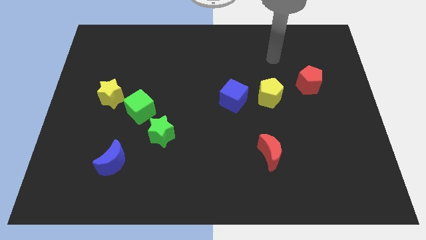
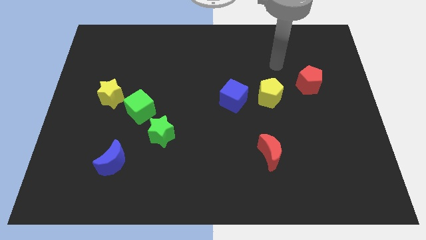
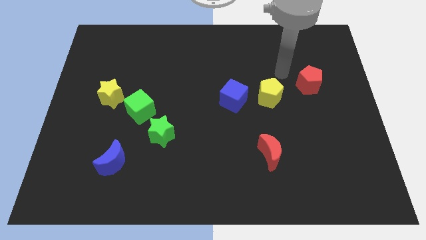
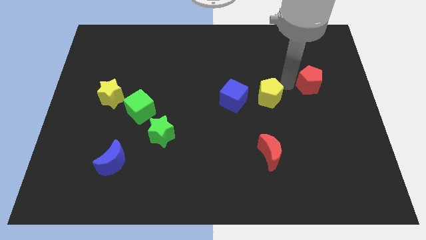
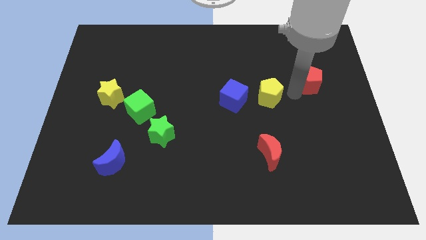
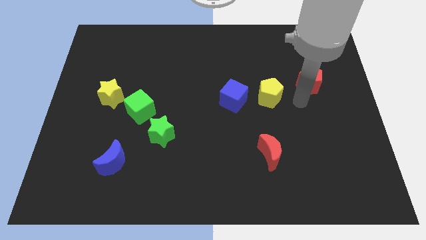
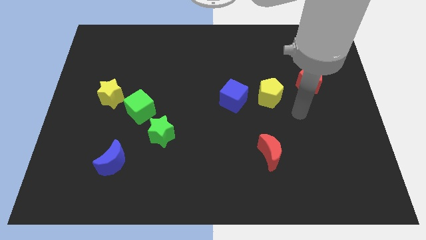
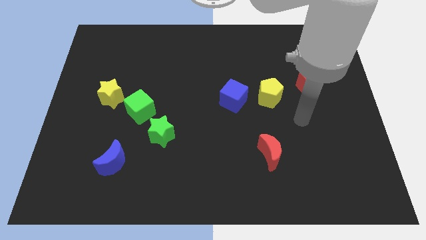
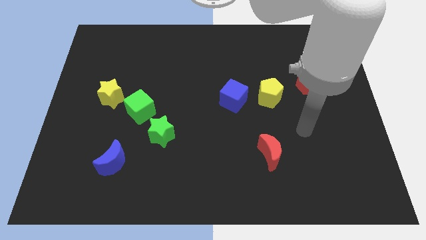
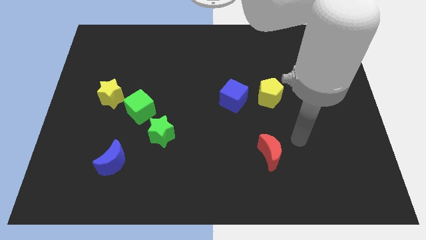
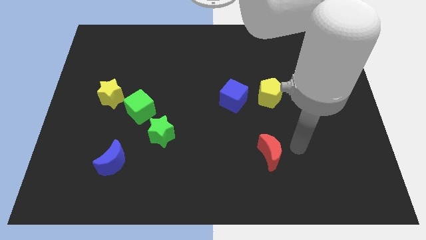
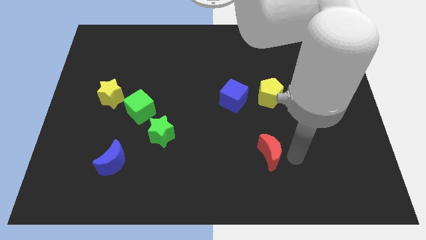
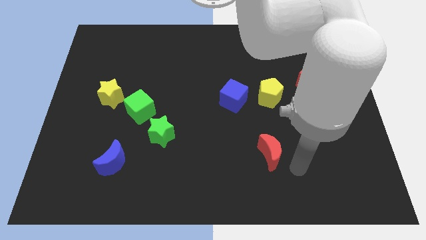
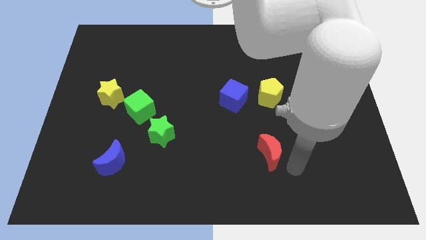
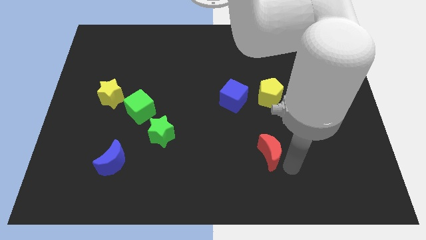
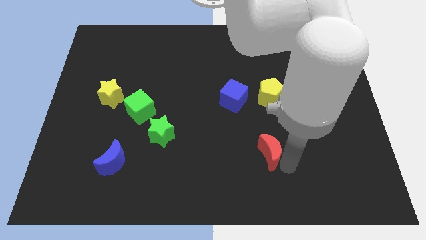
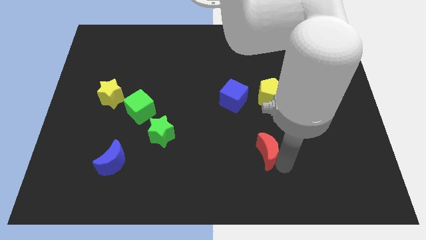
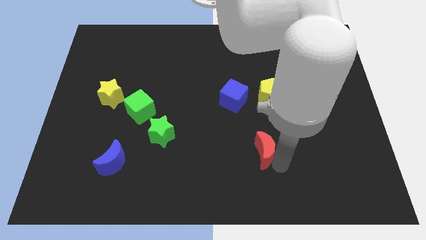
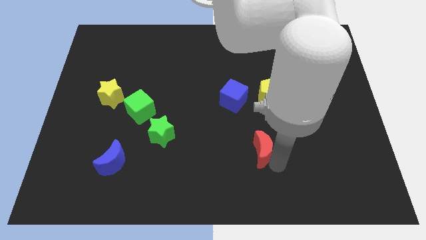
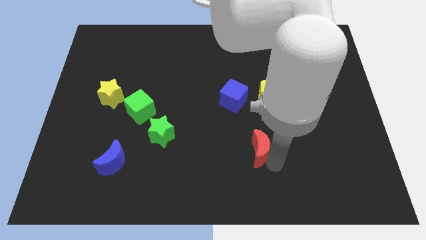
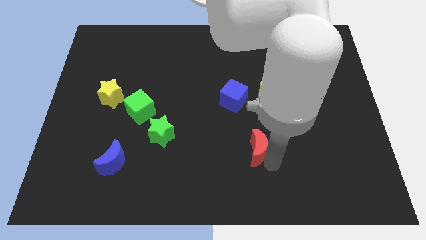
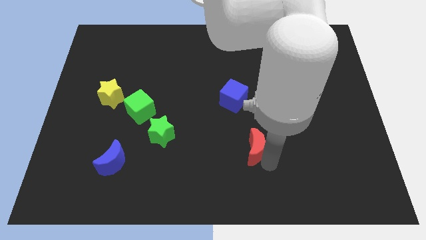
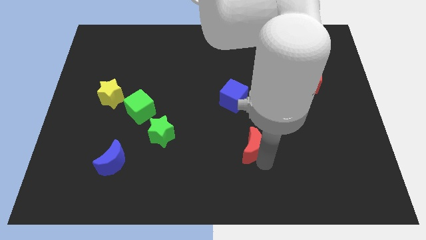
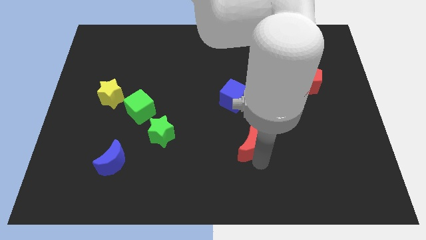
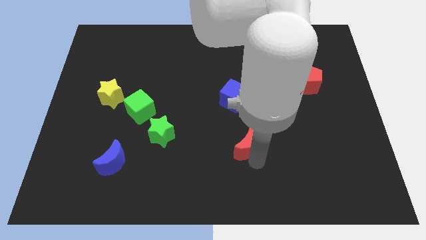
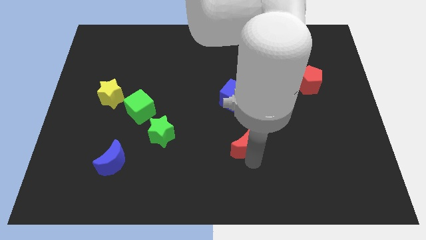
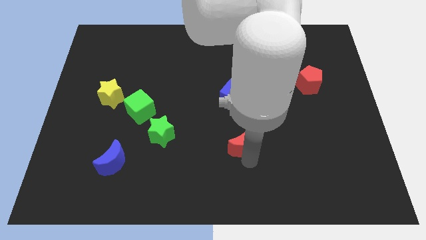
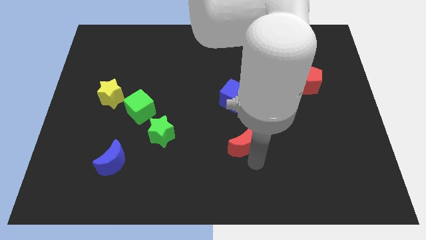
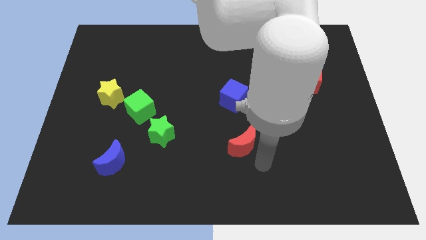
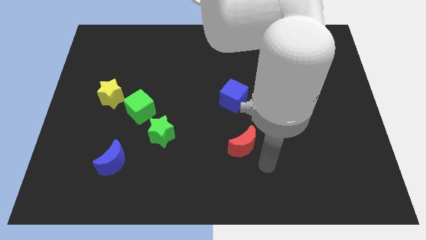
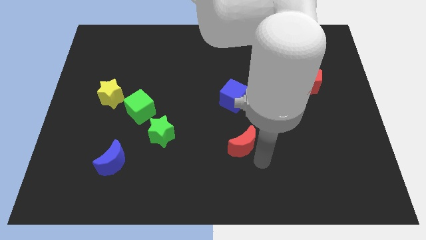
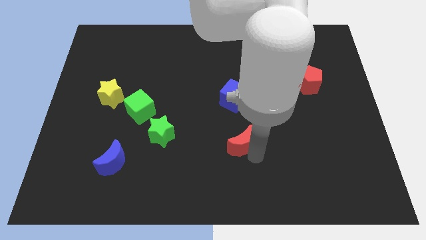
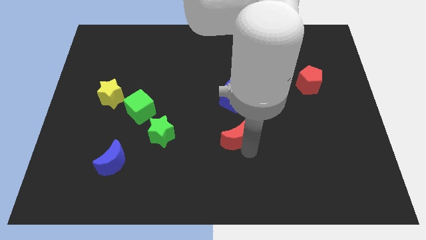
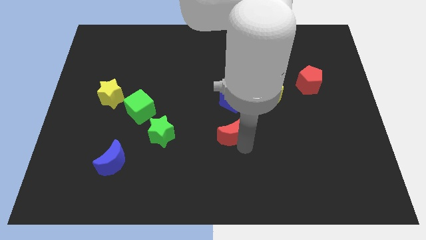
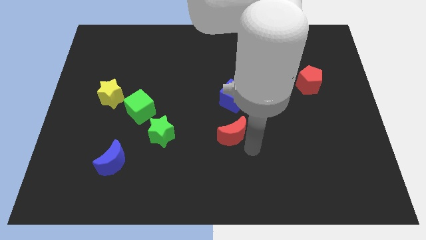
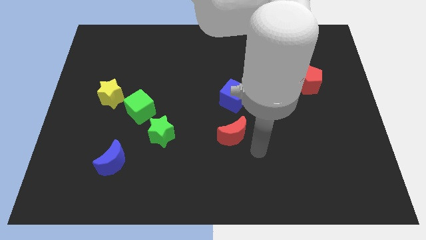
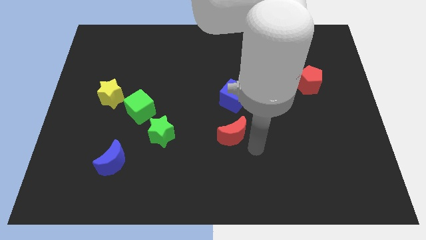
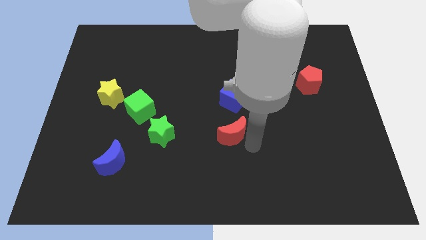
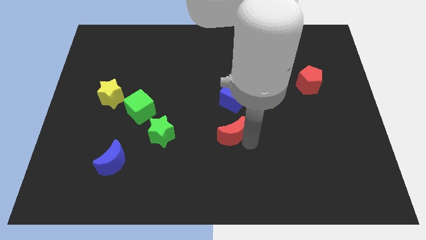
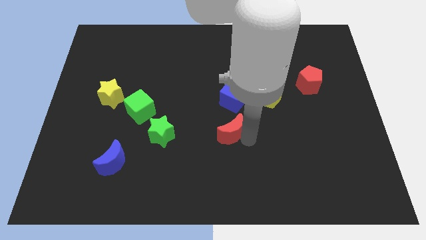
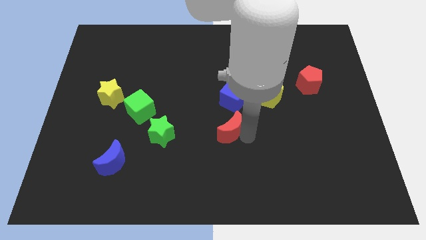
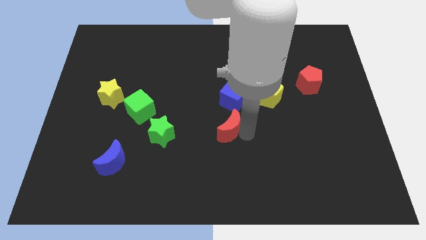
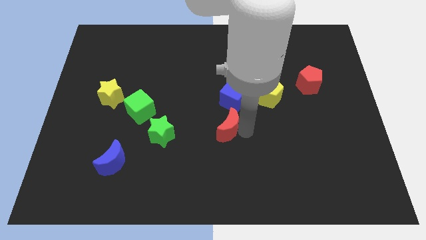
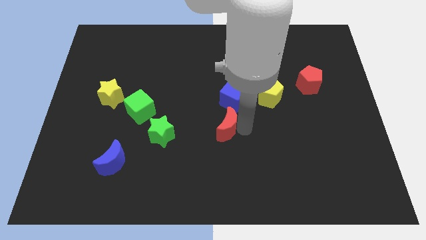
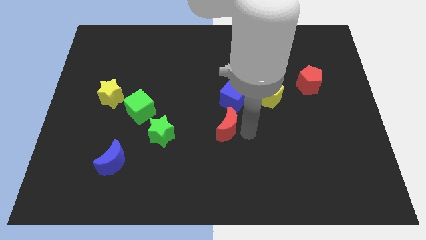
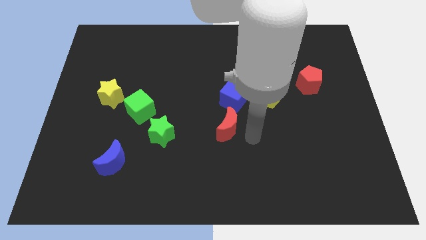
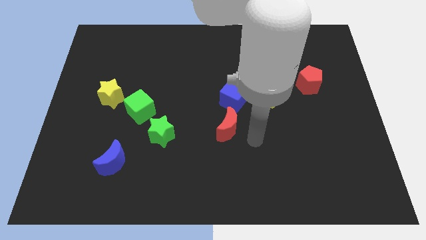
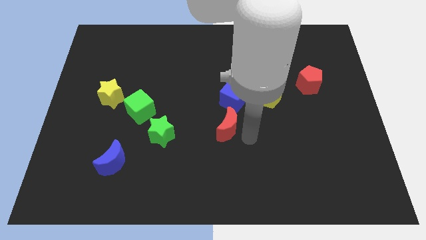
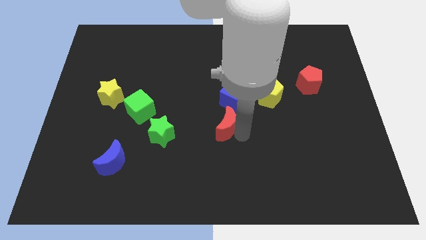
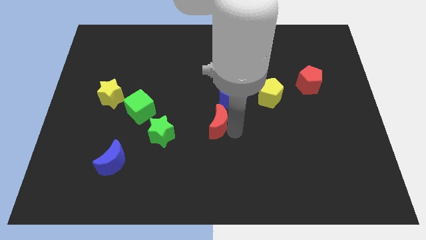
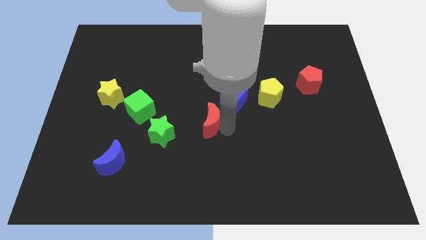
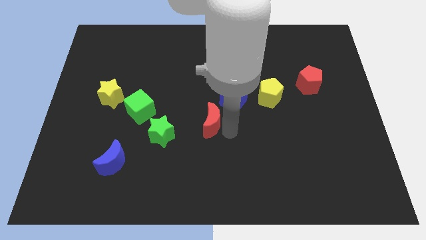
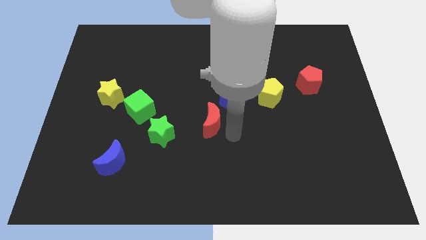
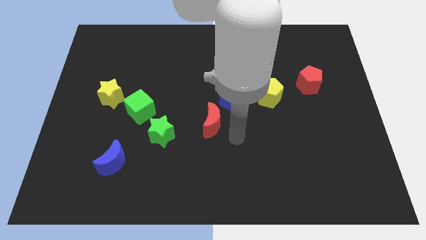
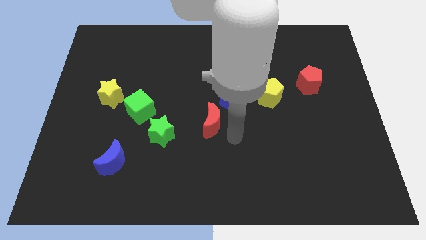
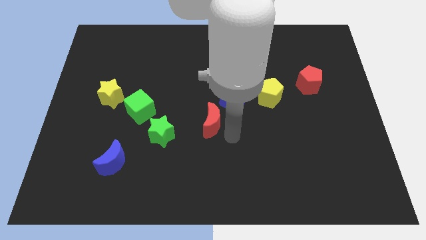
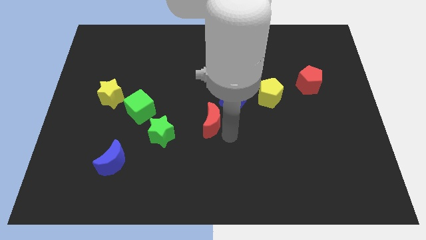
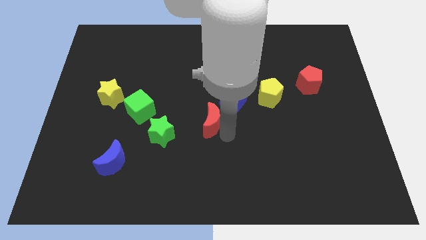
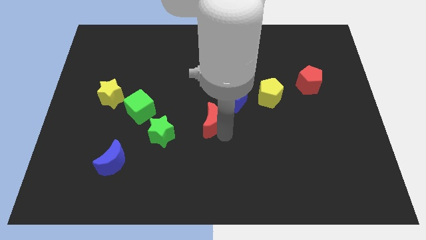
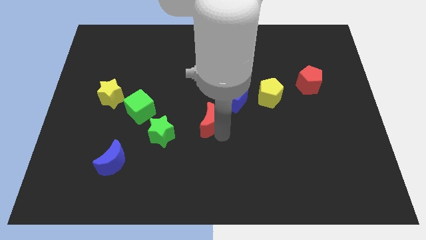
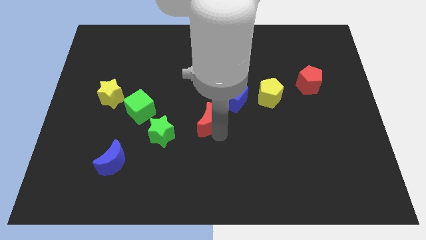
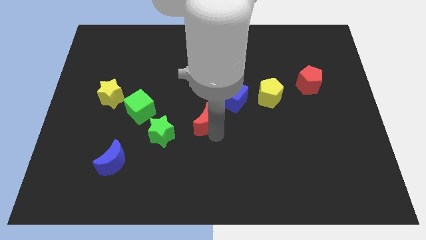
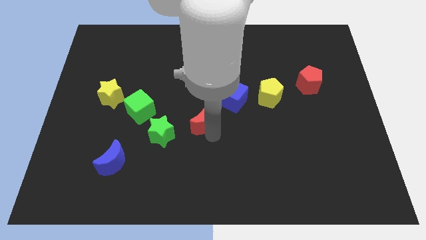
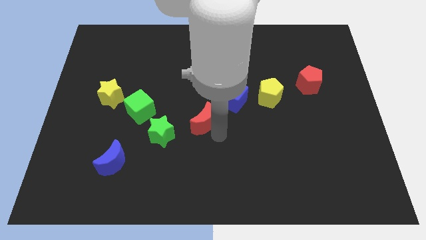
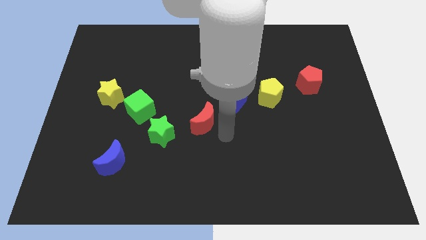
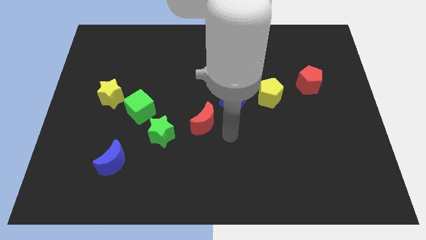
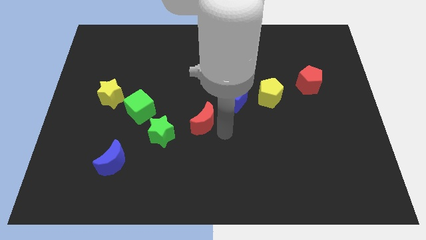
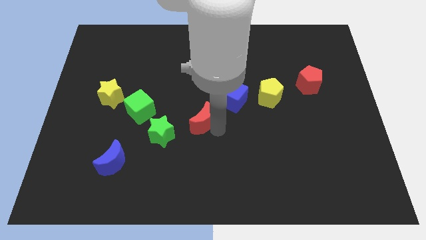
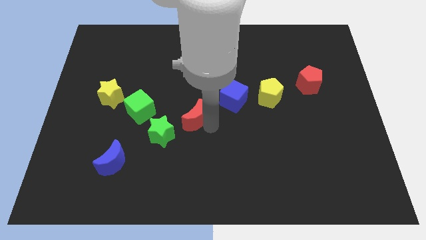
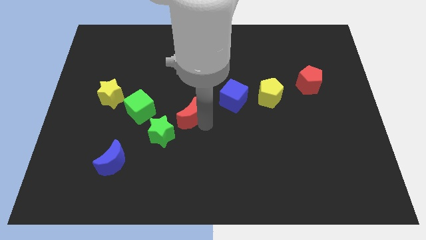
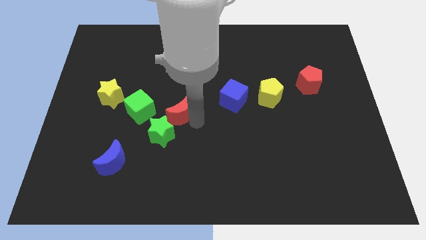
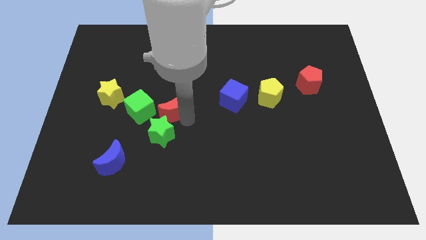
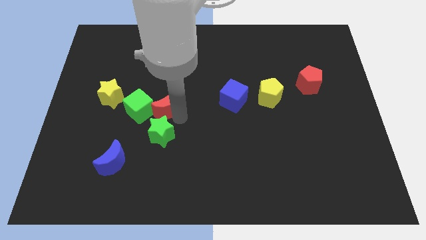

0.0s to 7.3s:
push the red moon diagonally up and to the right of the green cube
